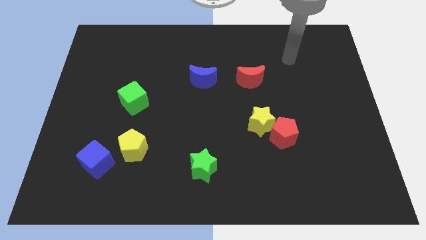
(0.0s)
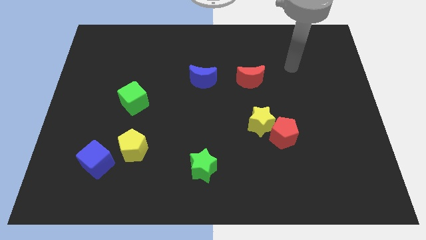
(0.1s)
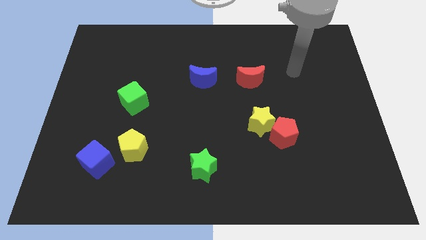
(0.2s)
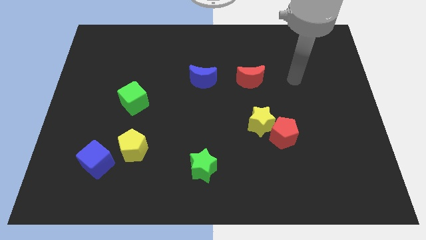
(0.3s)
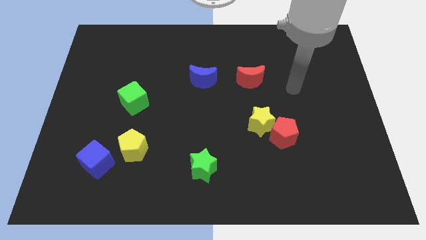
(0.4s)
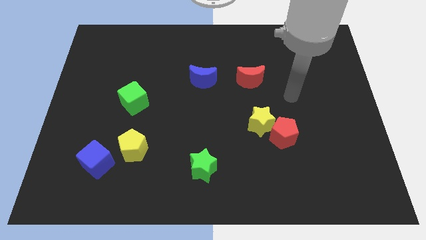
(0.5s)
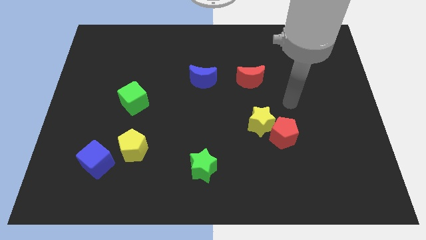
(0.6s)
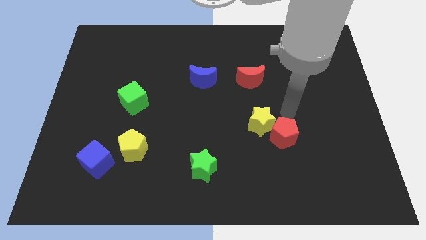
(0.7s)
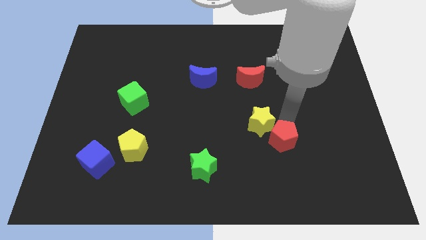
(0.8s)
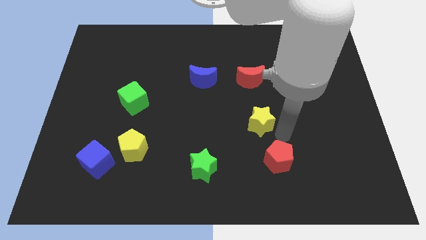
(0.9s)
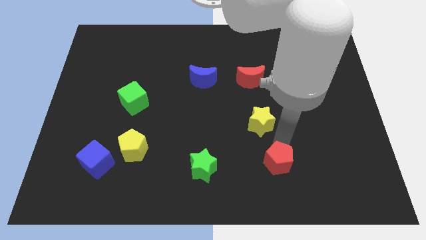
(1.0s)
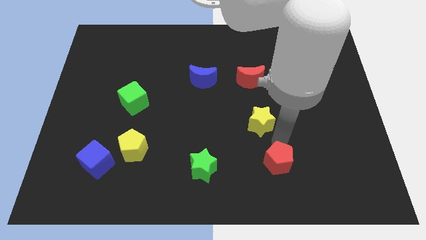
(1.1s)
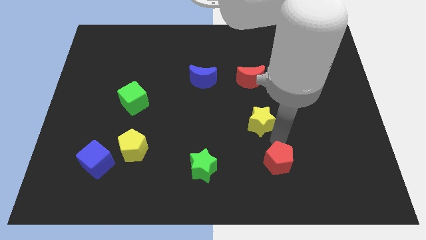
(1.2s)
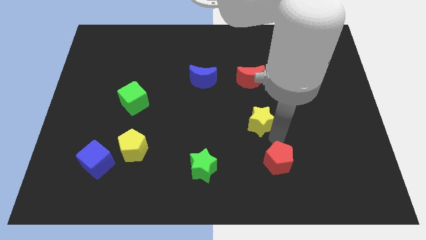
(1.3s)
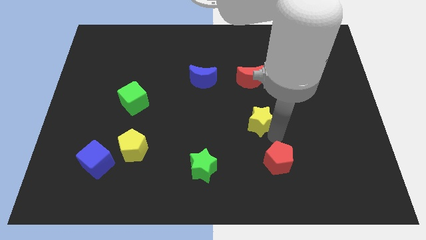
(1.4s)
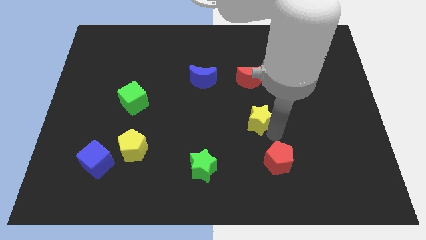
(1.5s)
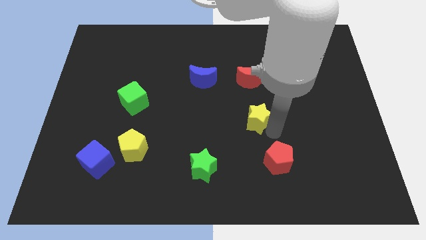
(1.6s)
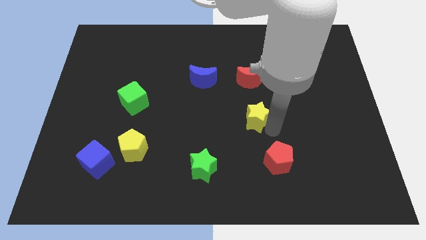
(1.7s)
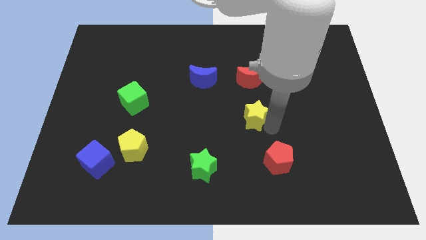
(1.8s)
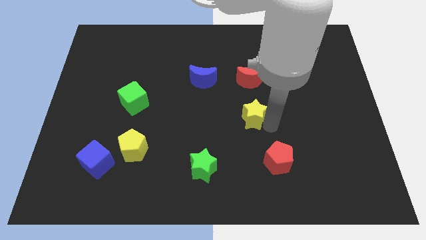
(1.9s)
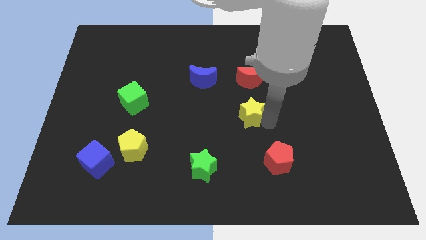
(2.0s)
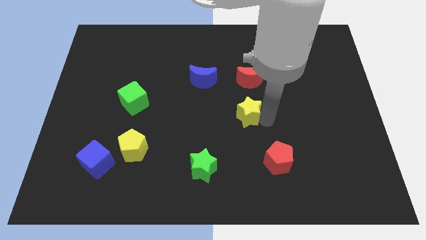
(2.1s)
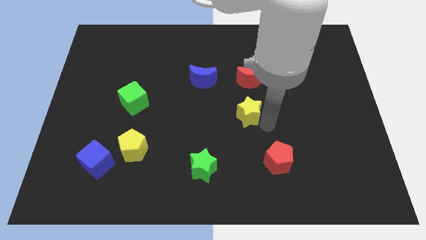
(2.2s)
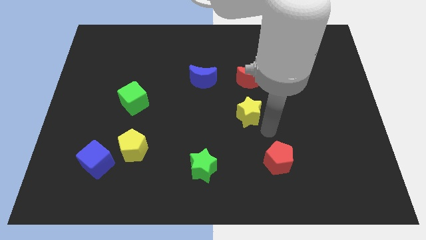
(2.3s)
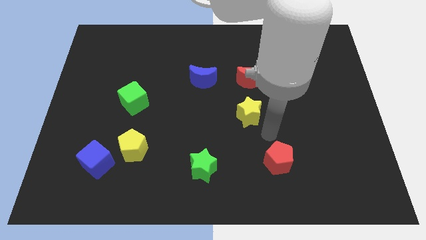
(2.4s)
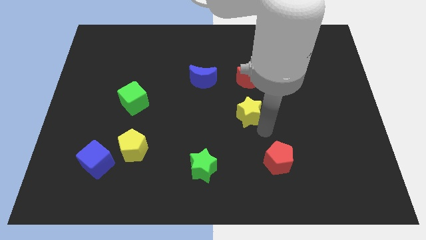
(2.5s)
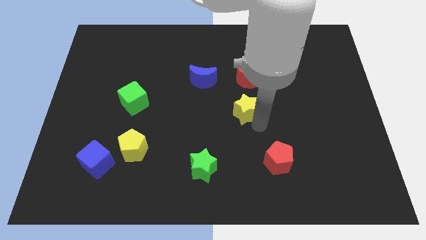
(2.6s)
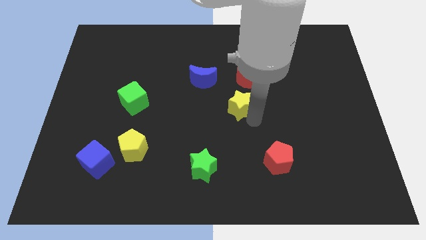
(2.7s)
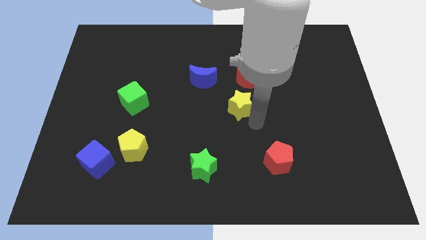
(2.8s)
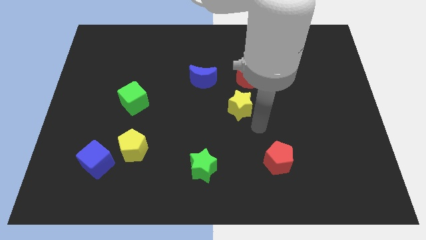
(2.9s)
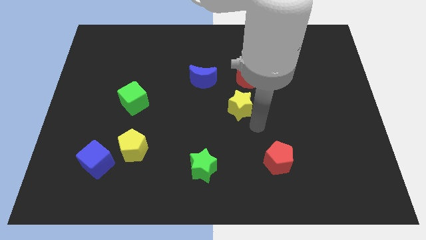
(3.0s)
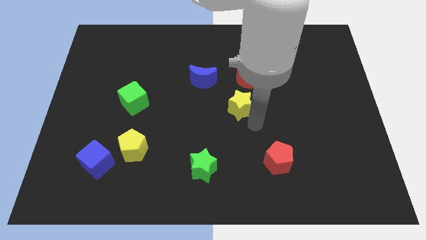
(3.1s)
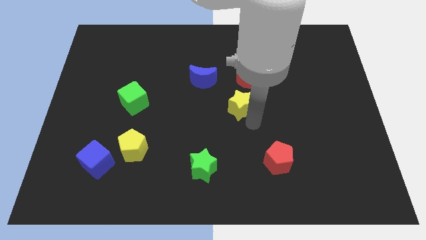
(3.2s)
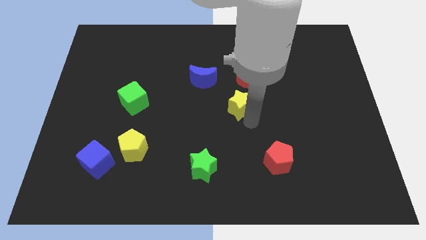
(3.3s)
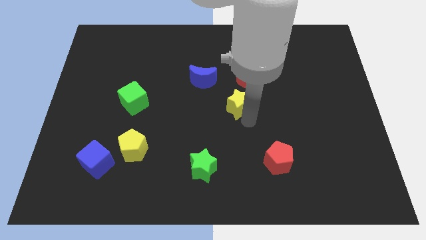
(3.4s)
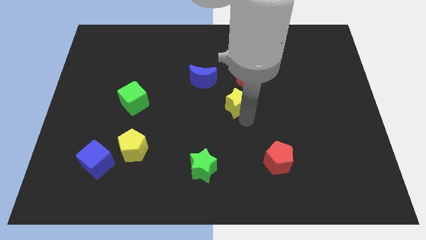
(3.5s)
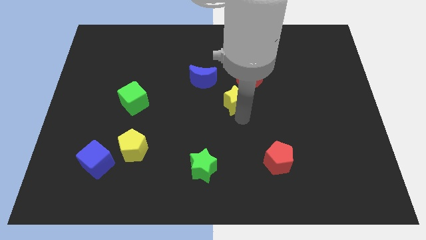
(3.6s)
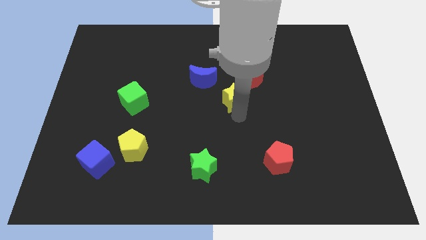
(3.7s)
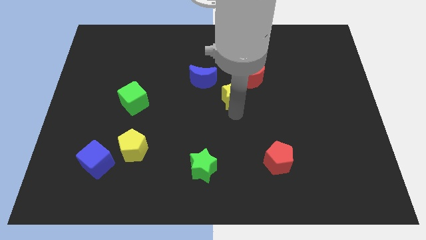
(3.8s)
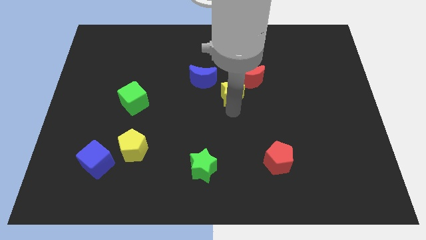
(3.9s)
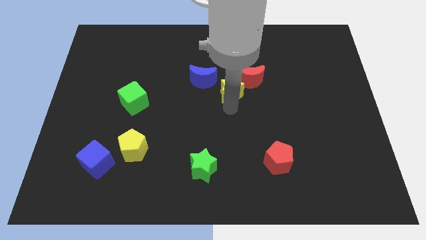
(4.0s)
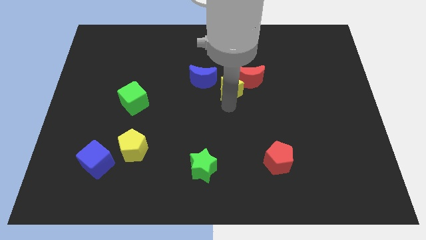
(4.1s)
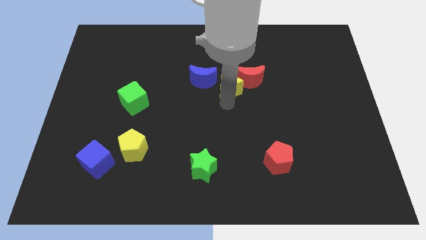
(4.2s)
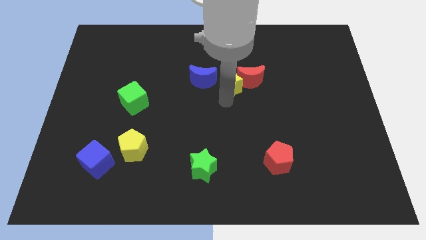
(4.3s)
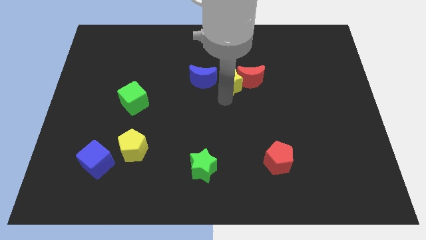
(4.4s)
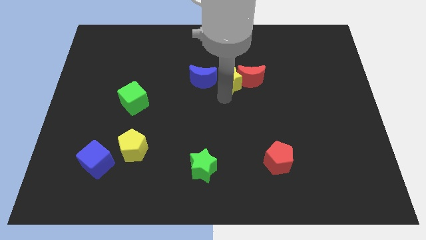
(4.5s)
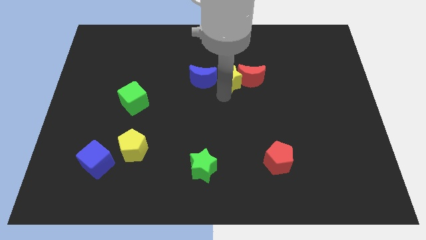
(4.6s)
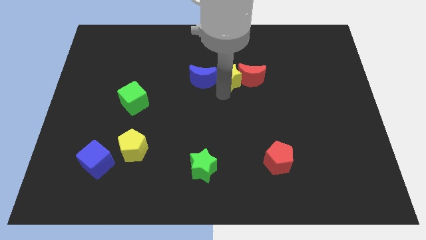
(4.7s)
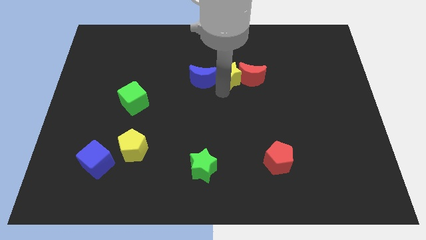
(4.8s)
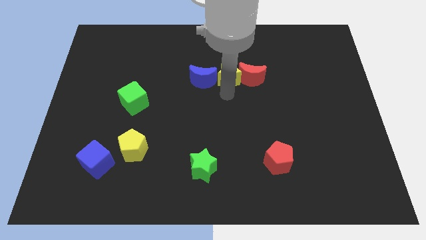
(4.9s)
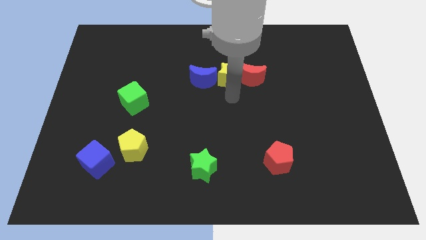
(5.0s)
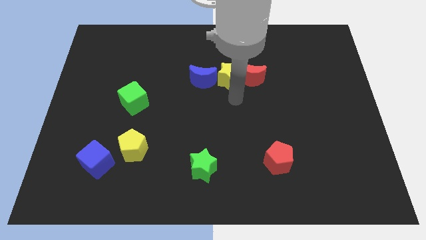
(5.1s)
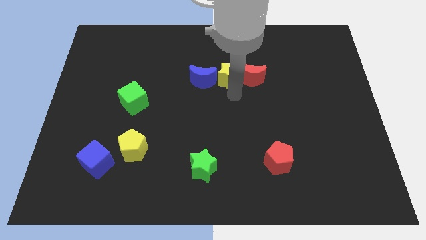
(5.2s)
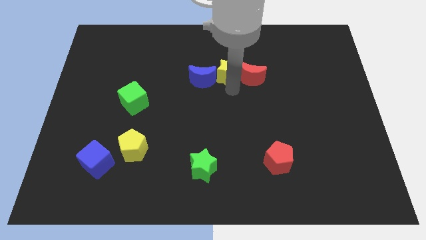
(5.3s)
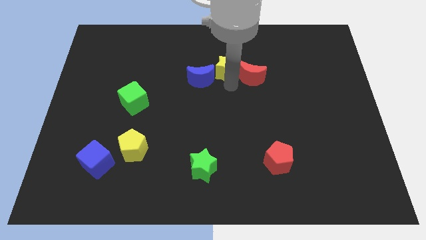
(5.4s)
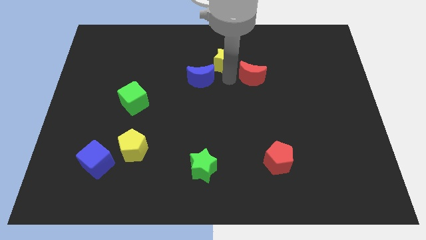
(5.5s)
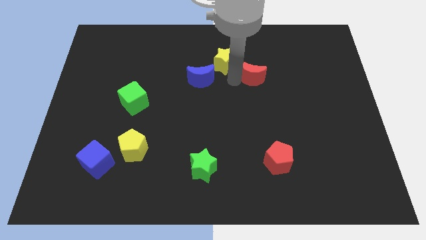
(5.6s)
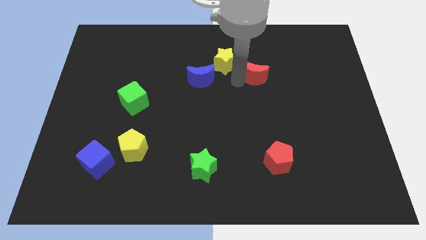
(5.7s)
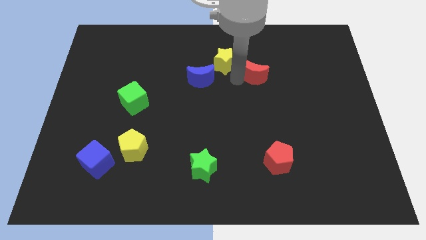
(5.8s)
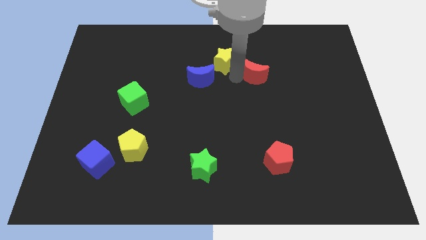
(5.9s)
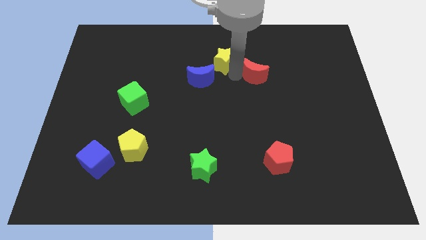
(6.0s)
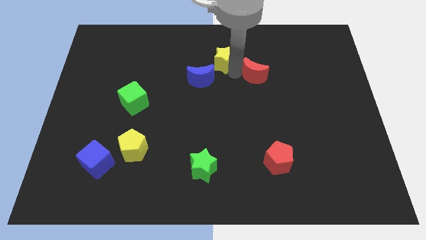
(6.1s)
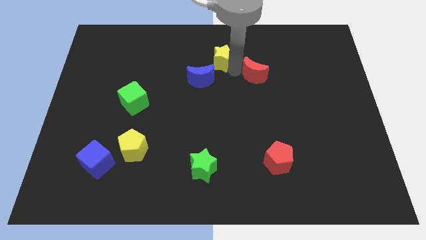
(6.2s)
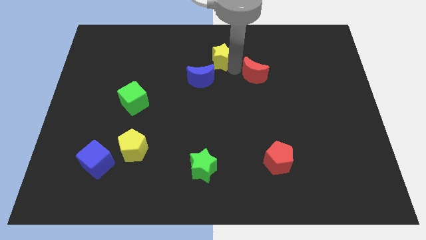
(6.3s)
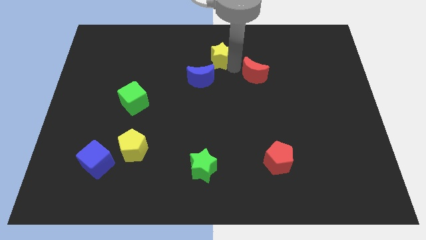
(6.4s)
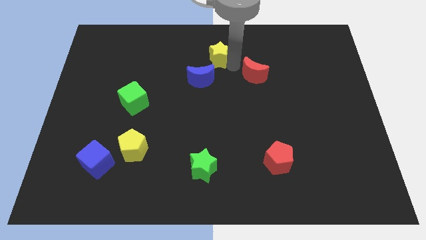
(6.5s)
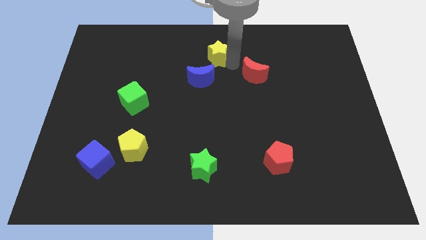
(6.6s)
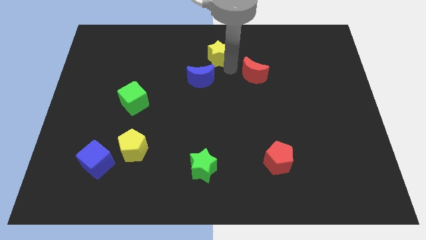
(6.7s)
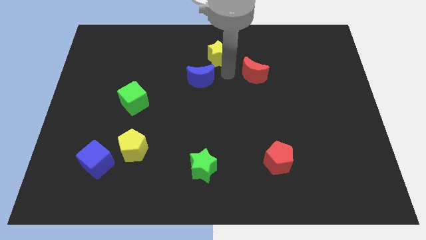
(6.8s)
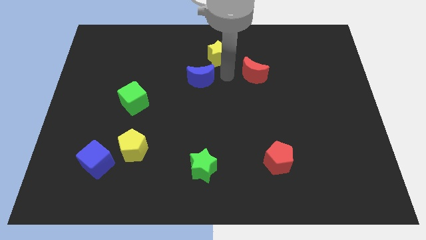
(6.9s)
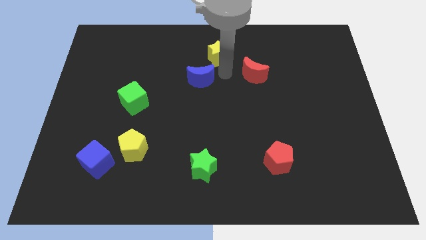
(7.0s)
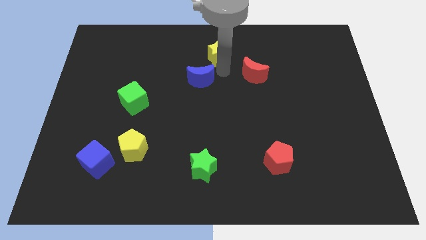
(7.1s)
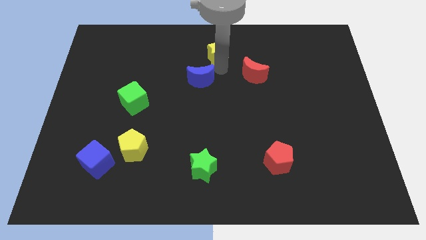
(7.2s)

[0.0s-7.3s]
put the yellow star to the top
